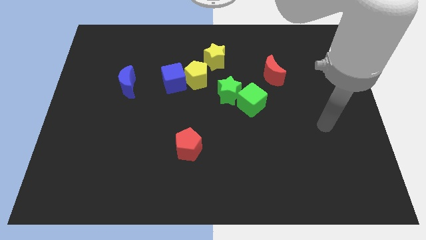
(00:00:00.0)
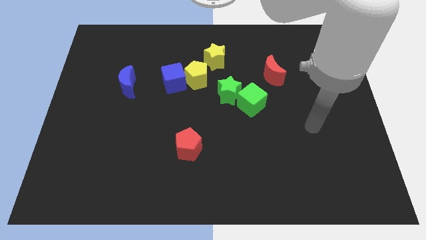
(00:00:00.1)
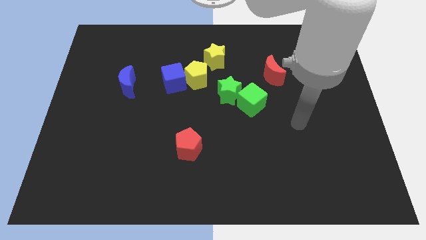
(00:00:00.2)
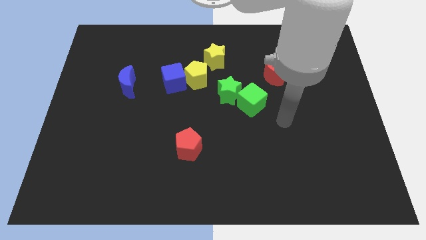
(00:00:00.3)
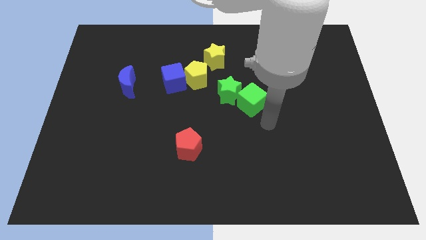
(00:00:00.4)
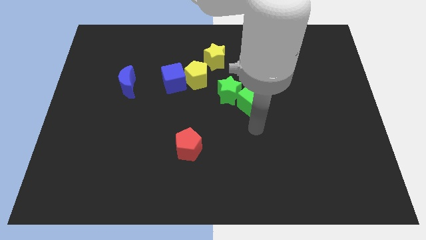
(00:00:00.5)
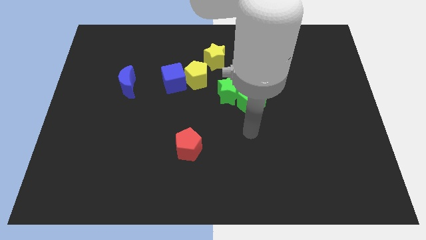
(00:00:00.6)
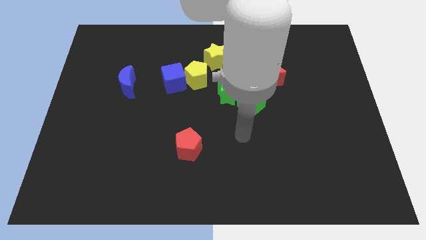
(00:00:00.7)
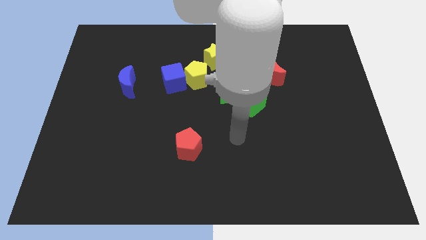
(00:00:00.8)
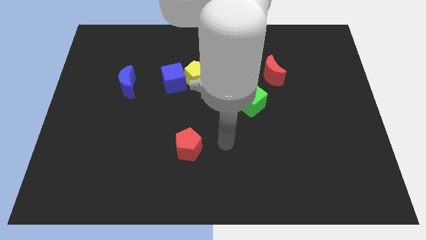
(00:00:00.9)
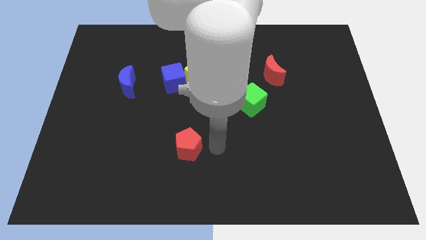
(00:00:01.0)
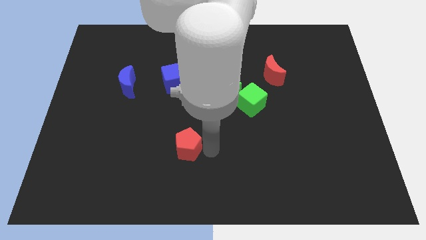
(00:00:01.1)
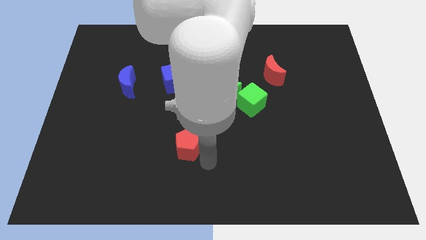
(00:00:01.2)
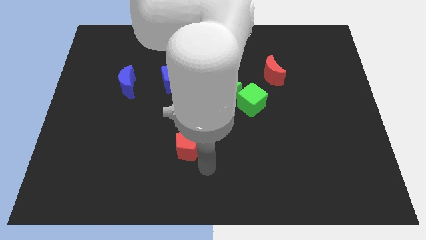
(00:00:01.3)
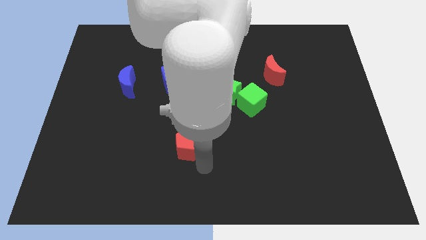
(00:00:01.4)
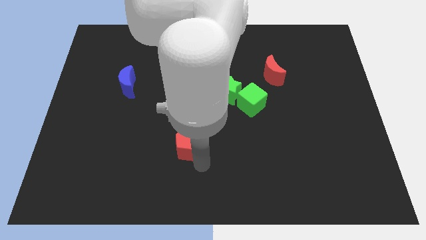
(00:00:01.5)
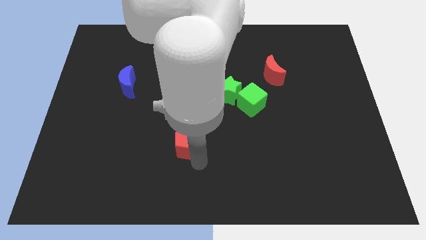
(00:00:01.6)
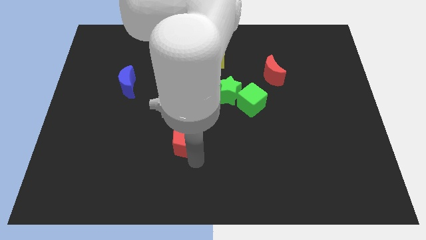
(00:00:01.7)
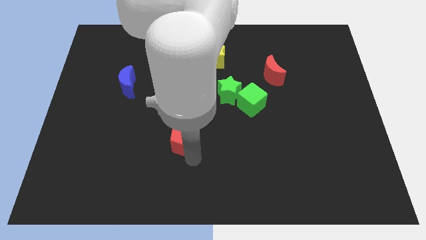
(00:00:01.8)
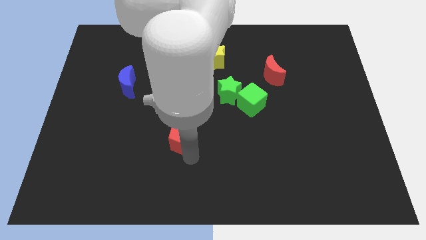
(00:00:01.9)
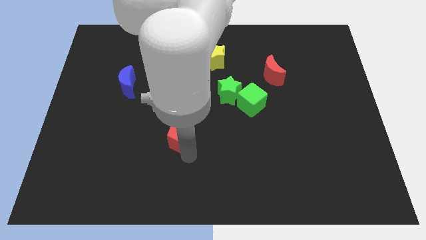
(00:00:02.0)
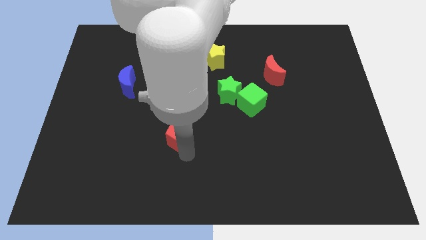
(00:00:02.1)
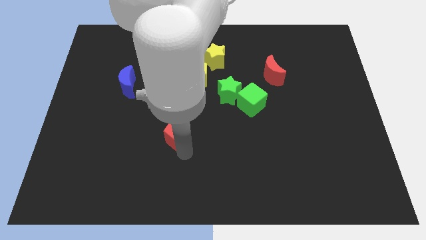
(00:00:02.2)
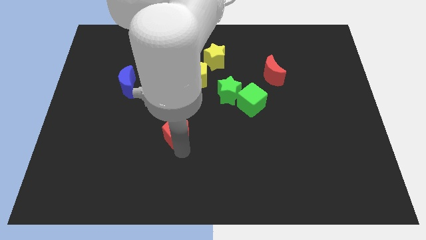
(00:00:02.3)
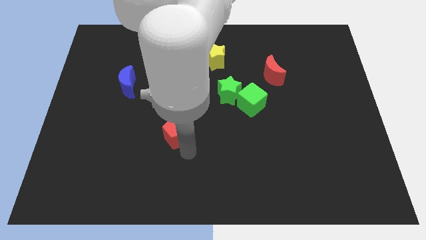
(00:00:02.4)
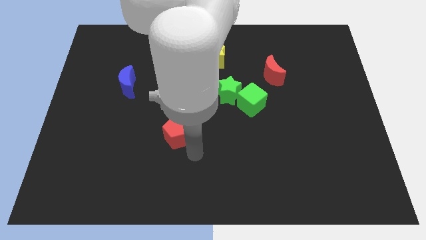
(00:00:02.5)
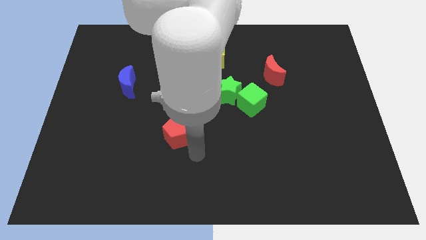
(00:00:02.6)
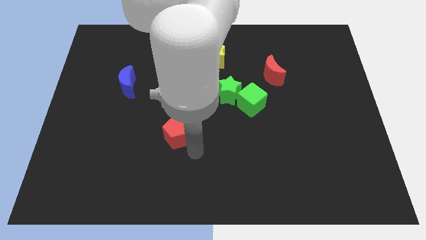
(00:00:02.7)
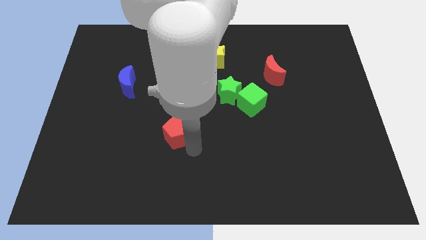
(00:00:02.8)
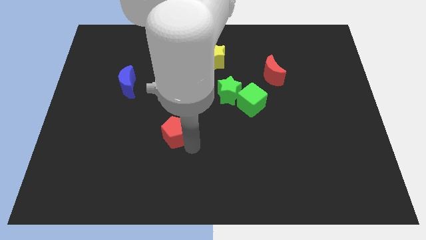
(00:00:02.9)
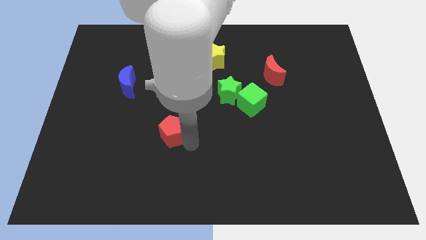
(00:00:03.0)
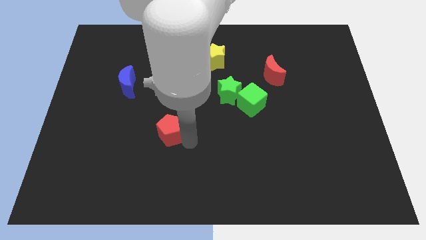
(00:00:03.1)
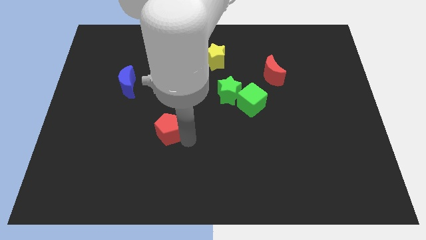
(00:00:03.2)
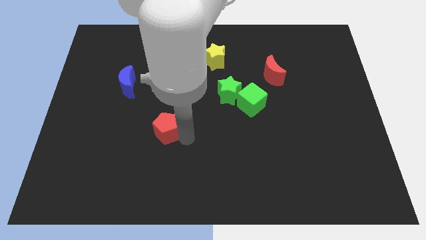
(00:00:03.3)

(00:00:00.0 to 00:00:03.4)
slide the red pentagon upwards and left diagonally a bit

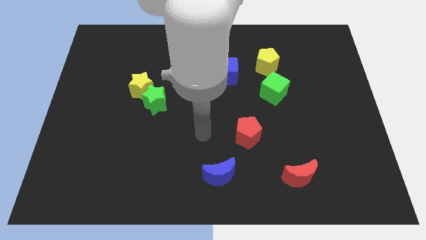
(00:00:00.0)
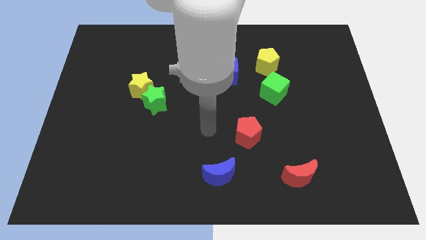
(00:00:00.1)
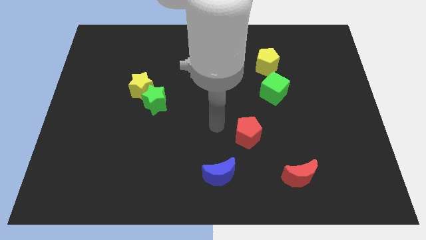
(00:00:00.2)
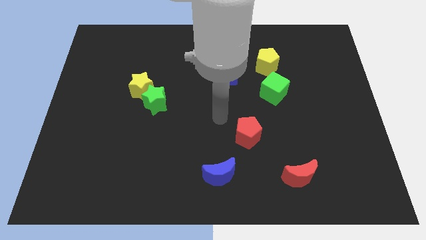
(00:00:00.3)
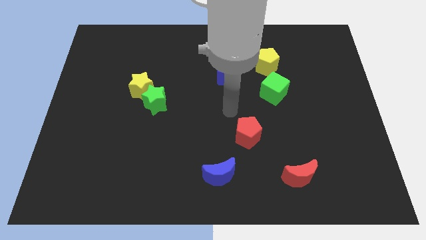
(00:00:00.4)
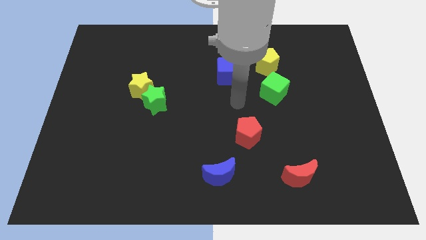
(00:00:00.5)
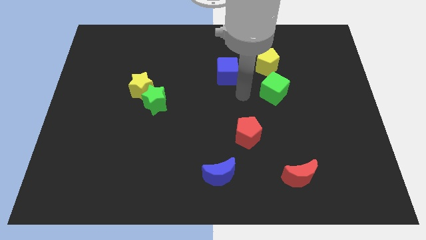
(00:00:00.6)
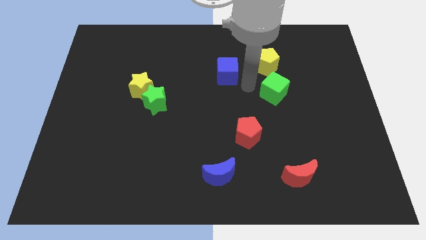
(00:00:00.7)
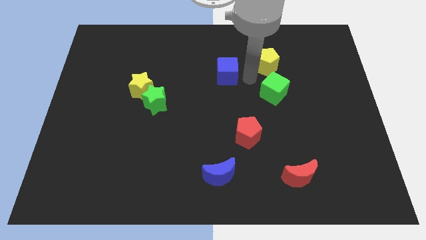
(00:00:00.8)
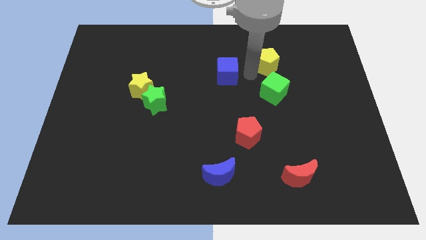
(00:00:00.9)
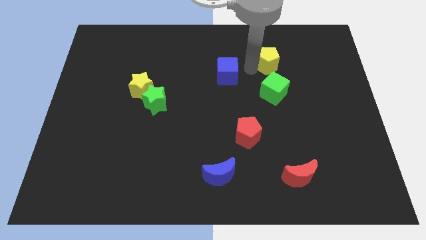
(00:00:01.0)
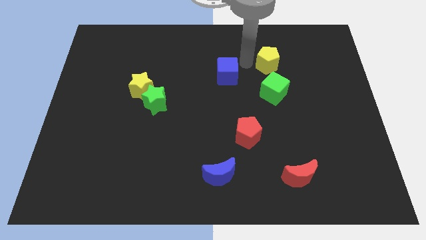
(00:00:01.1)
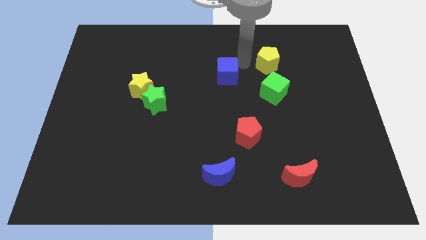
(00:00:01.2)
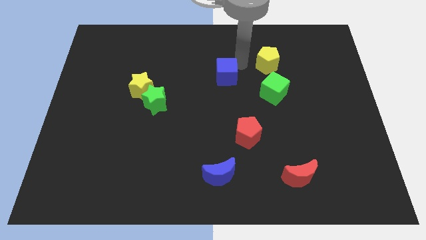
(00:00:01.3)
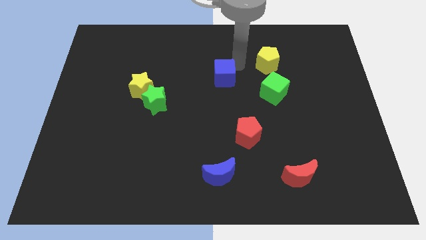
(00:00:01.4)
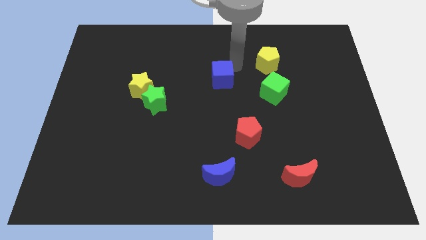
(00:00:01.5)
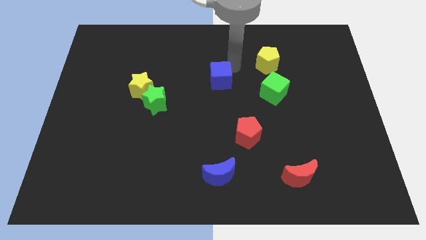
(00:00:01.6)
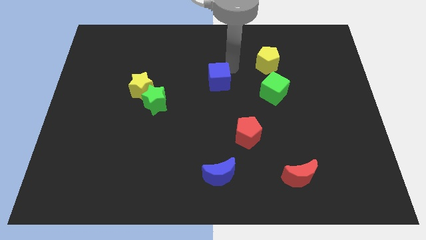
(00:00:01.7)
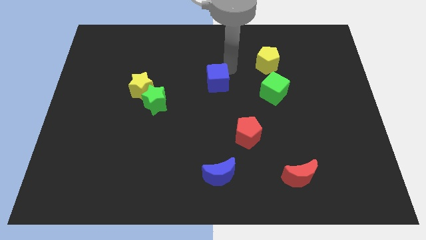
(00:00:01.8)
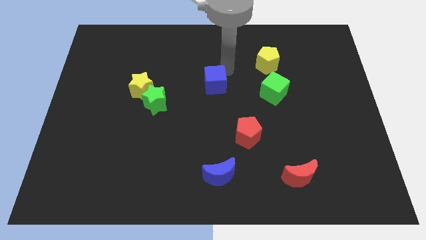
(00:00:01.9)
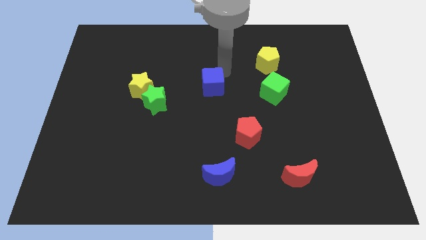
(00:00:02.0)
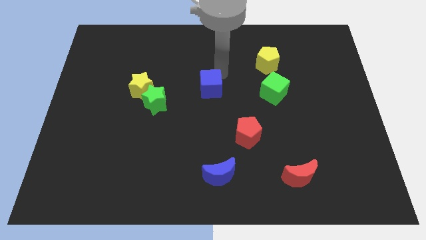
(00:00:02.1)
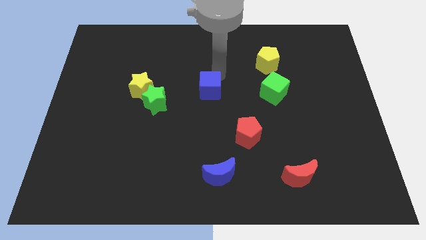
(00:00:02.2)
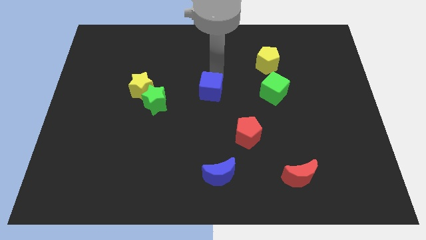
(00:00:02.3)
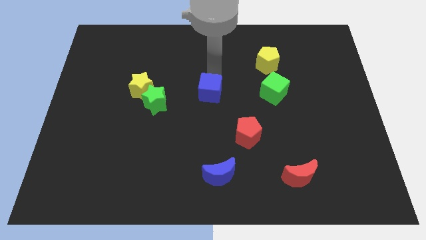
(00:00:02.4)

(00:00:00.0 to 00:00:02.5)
slide the blue cube a little bit downwards and left

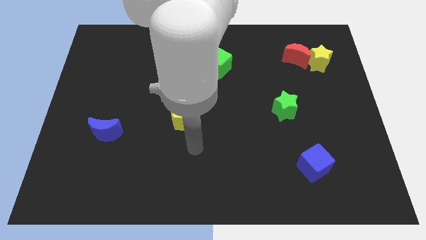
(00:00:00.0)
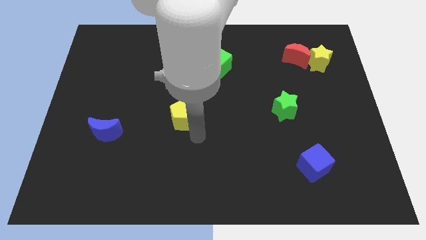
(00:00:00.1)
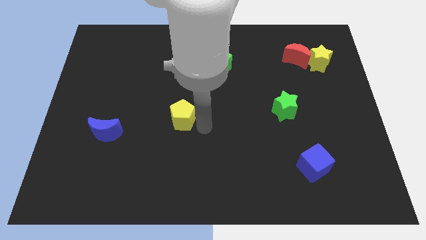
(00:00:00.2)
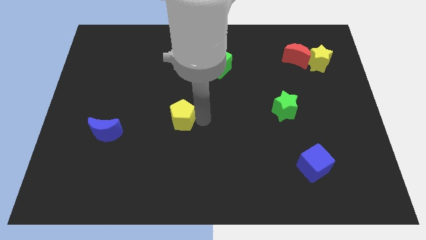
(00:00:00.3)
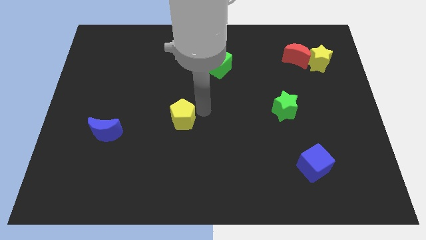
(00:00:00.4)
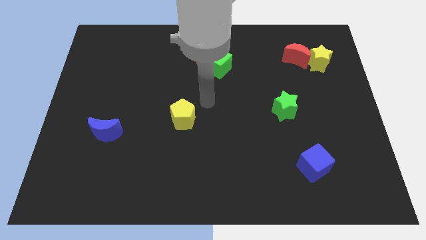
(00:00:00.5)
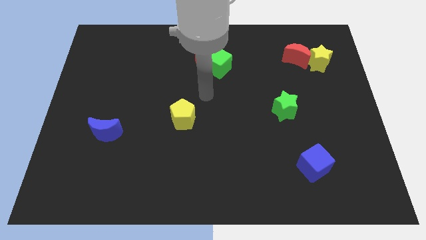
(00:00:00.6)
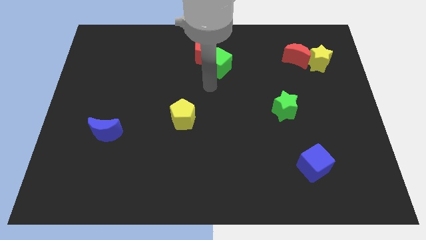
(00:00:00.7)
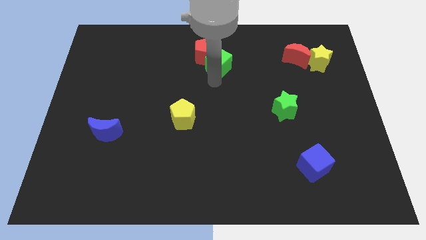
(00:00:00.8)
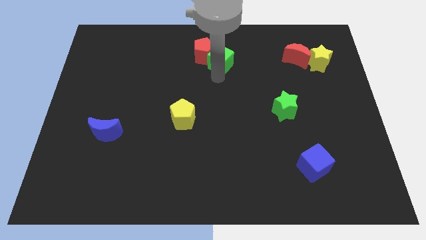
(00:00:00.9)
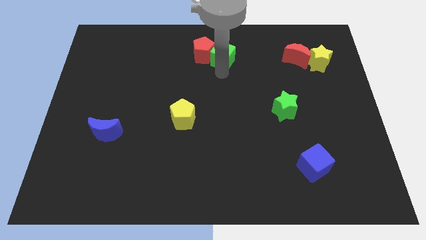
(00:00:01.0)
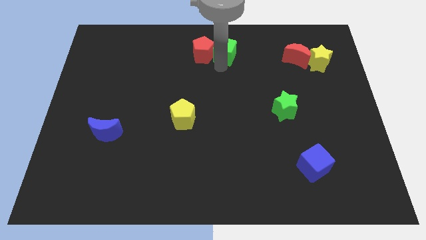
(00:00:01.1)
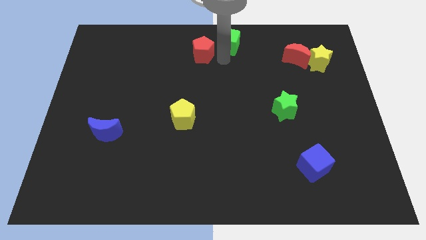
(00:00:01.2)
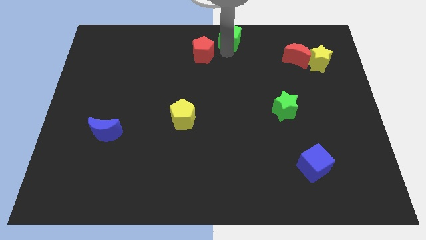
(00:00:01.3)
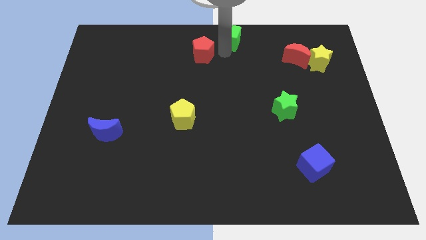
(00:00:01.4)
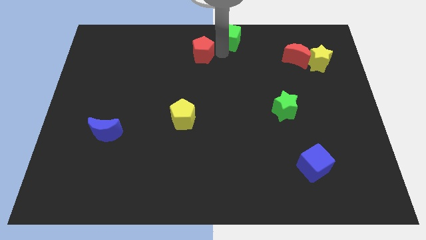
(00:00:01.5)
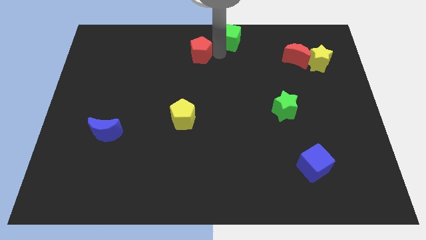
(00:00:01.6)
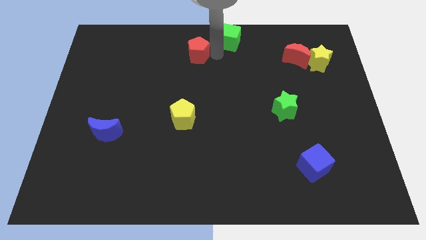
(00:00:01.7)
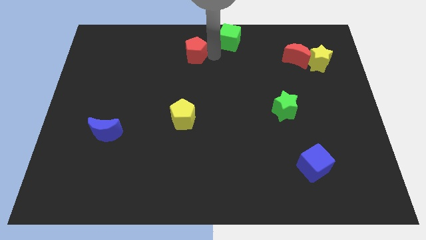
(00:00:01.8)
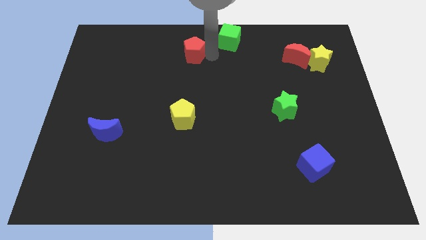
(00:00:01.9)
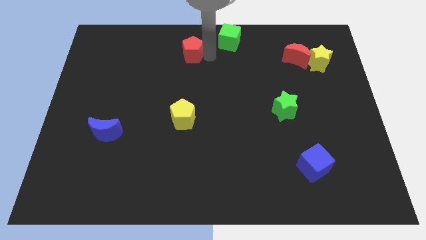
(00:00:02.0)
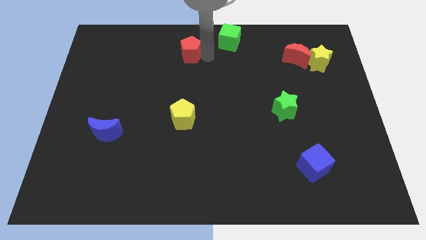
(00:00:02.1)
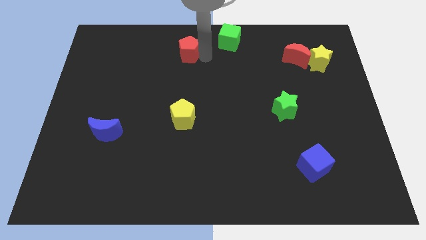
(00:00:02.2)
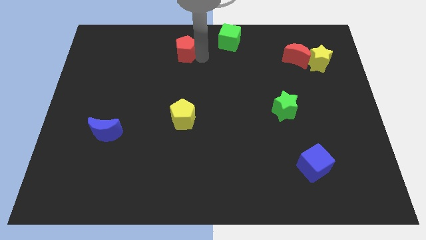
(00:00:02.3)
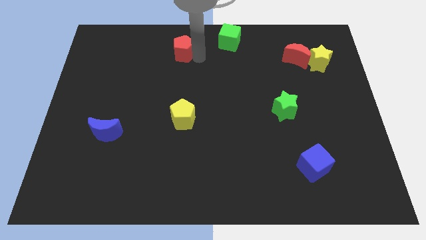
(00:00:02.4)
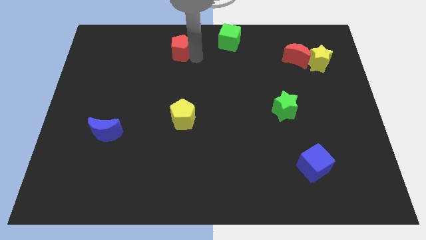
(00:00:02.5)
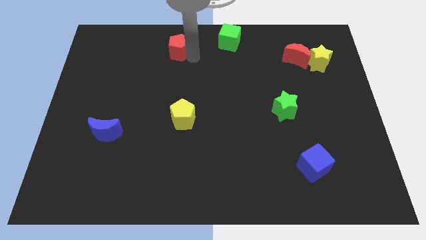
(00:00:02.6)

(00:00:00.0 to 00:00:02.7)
move the red pentagon to the left slightly

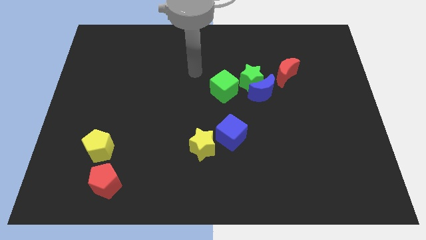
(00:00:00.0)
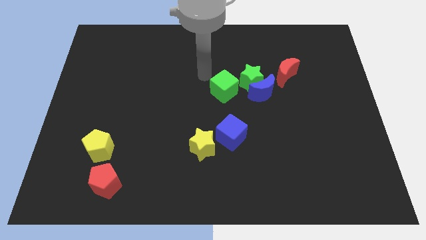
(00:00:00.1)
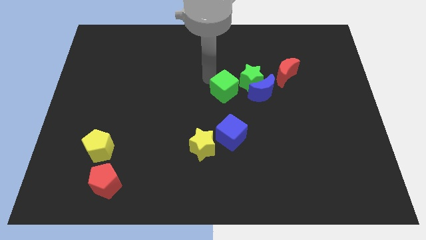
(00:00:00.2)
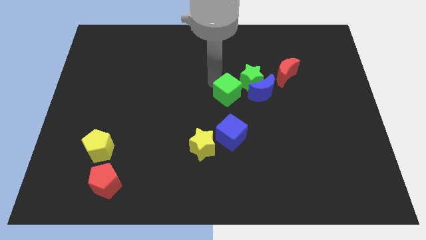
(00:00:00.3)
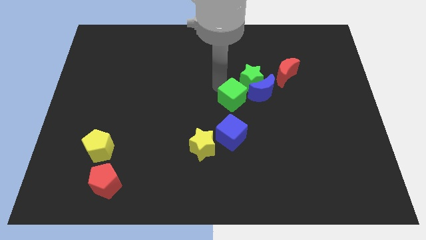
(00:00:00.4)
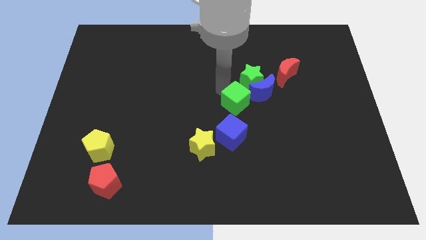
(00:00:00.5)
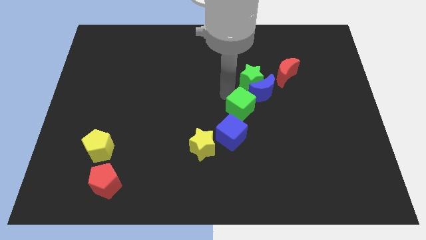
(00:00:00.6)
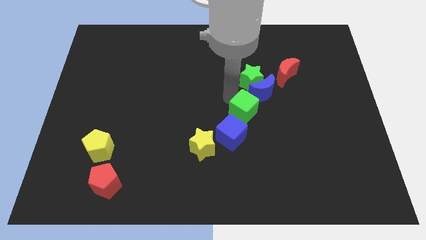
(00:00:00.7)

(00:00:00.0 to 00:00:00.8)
slightly push the green cube downwards and to the right diagonally
